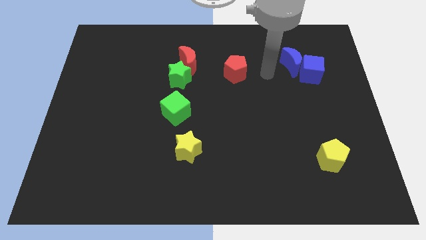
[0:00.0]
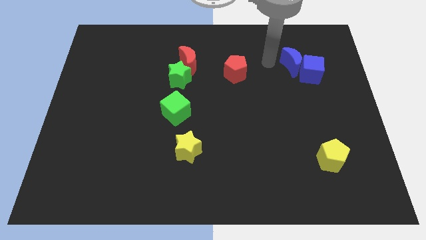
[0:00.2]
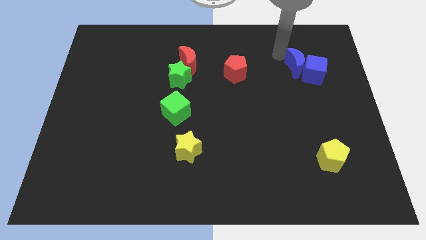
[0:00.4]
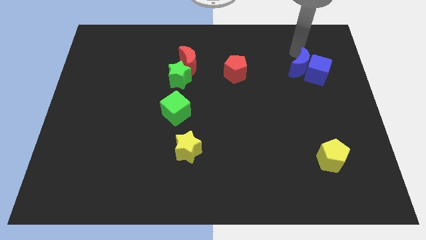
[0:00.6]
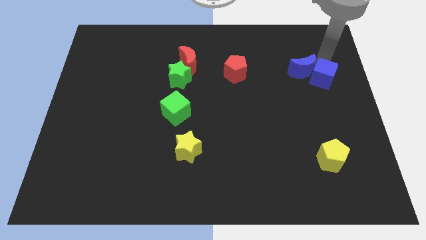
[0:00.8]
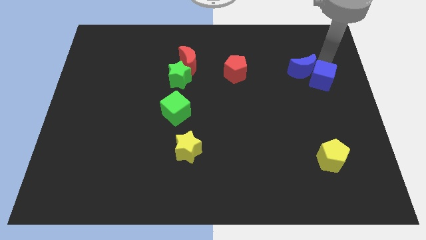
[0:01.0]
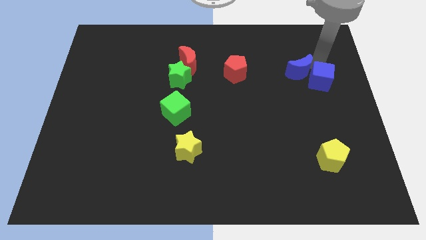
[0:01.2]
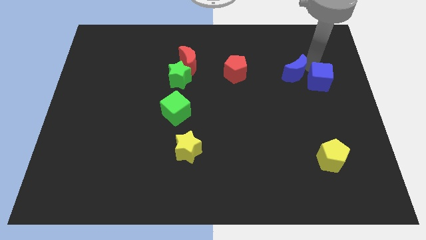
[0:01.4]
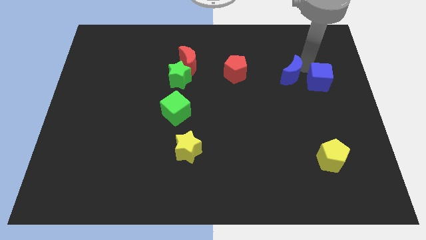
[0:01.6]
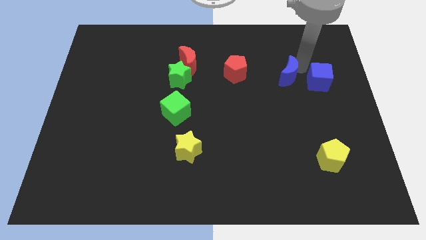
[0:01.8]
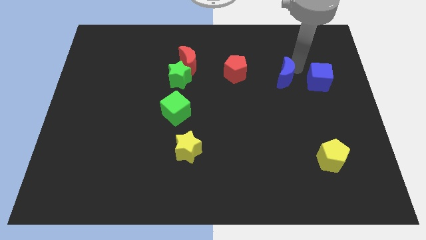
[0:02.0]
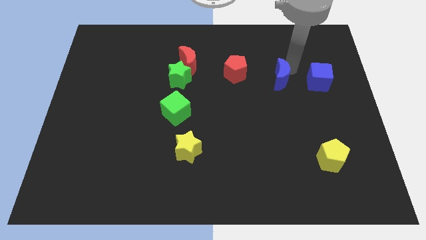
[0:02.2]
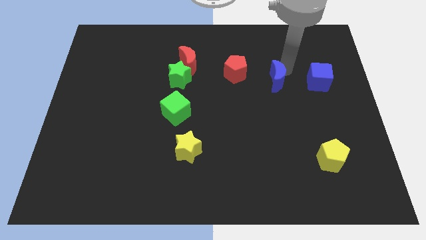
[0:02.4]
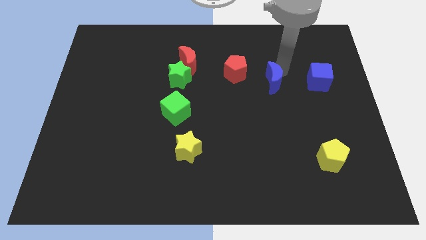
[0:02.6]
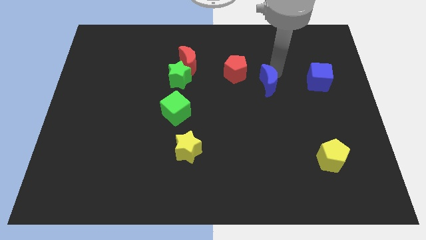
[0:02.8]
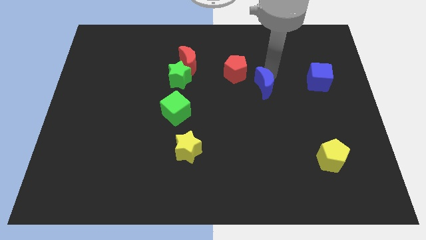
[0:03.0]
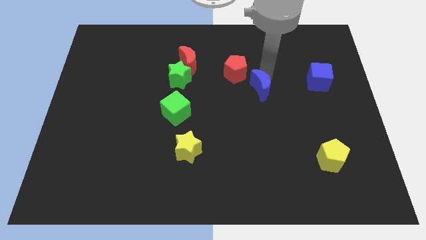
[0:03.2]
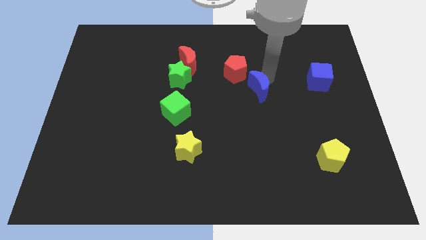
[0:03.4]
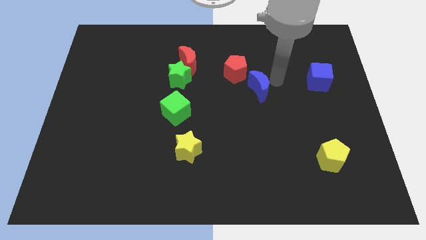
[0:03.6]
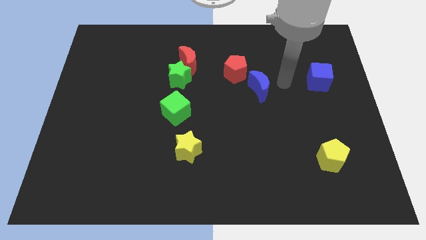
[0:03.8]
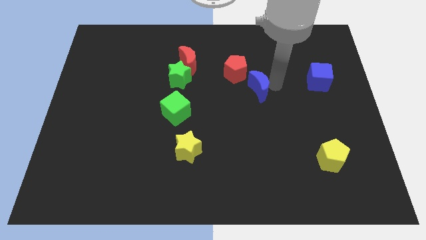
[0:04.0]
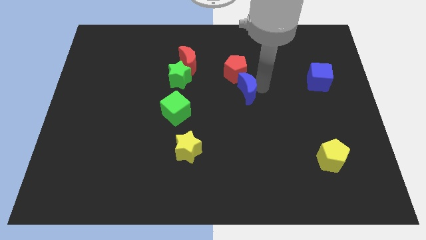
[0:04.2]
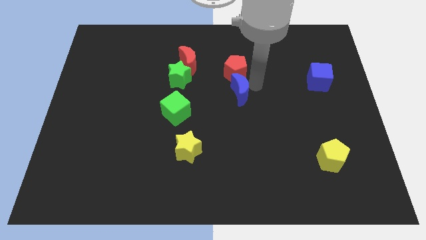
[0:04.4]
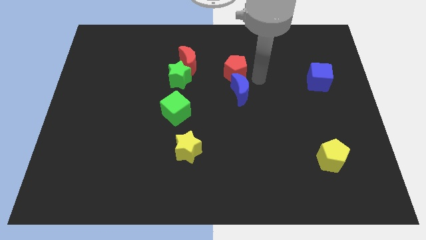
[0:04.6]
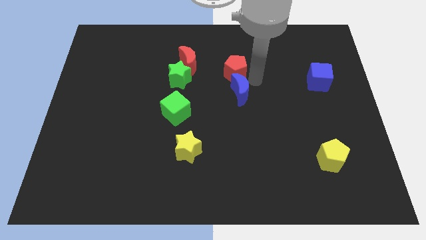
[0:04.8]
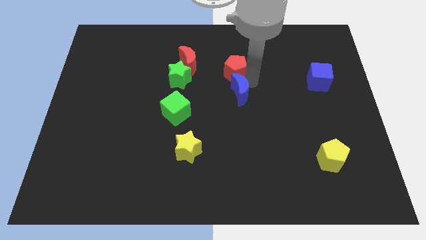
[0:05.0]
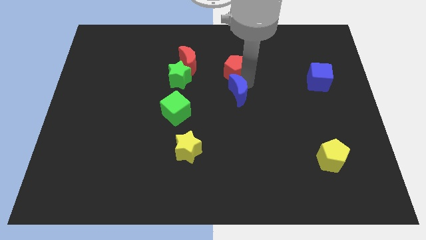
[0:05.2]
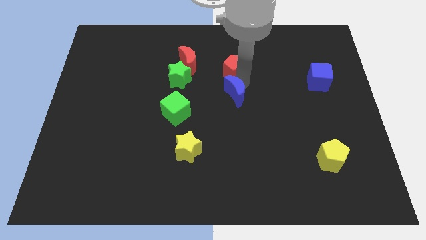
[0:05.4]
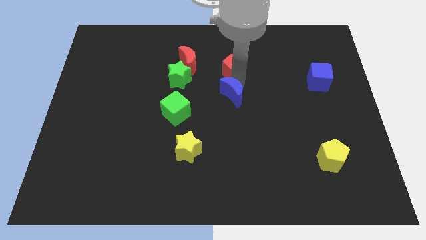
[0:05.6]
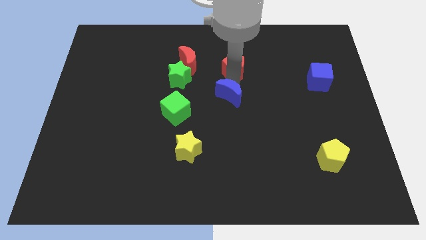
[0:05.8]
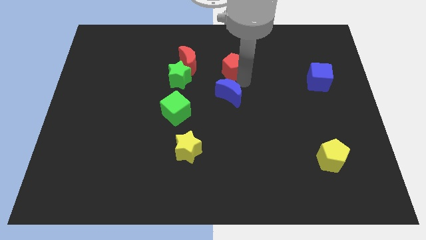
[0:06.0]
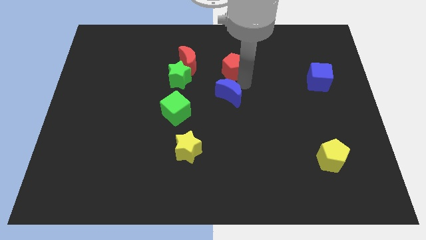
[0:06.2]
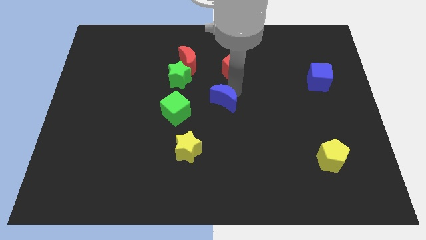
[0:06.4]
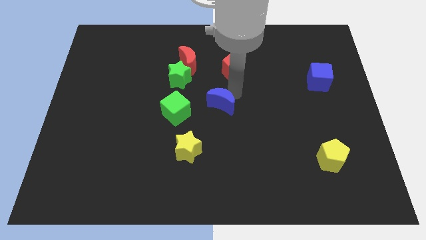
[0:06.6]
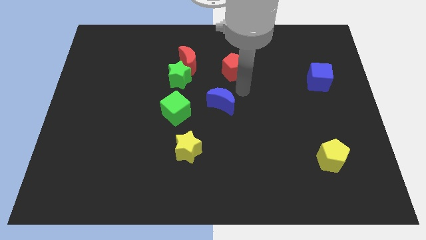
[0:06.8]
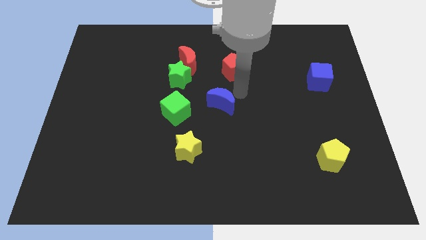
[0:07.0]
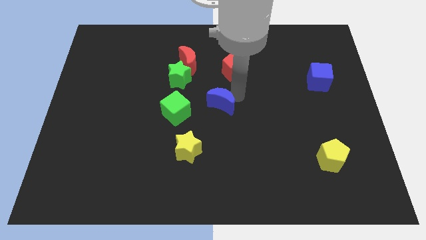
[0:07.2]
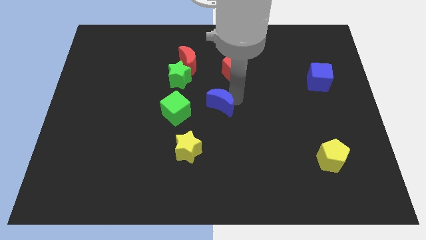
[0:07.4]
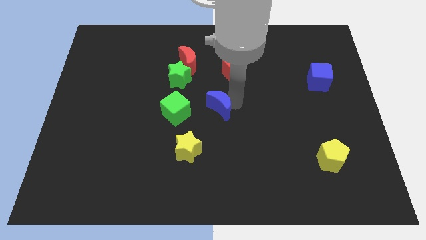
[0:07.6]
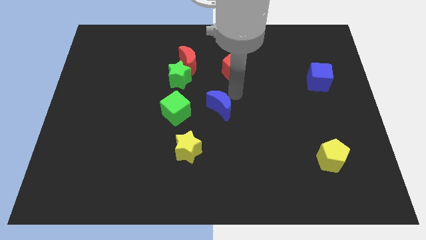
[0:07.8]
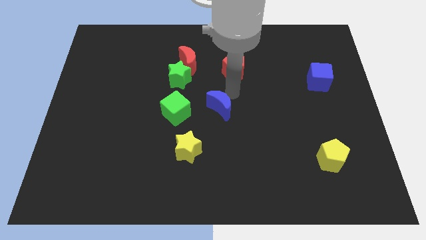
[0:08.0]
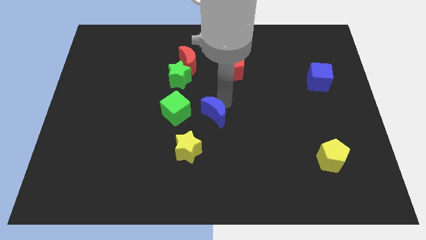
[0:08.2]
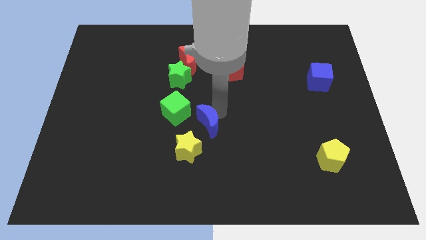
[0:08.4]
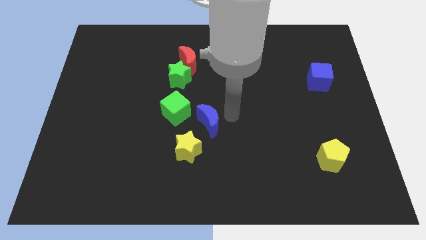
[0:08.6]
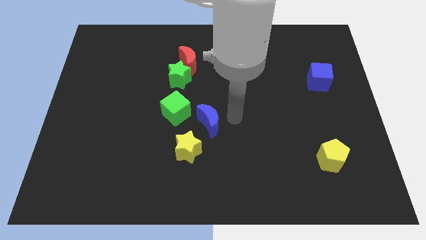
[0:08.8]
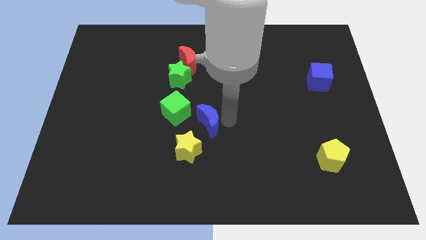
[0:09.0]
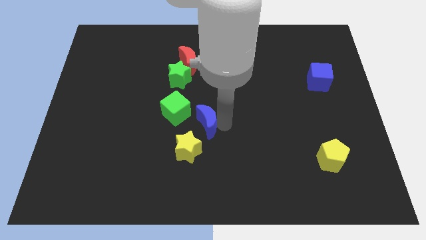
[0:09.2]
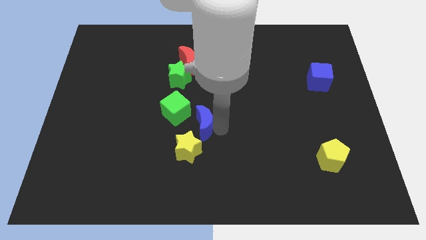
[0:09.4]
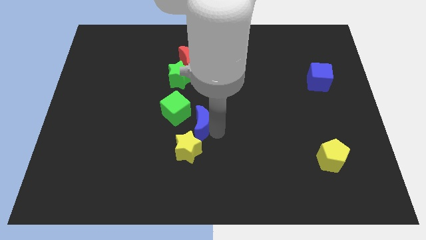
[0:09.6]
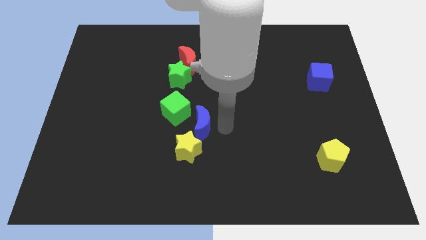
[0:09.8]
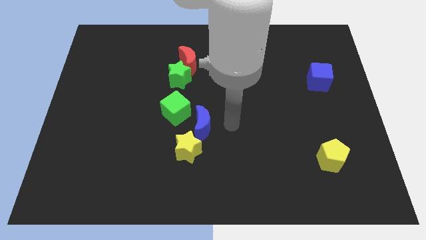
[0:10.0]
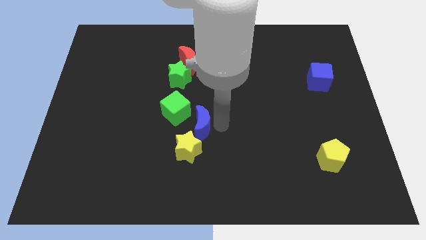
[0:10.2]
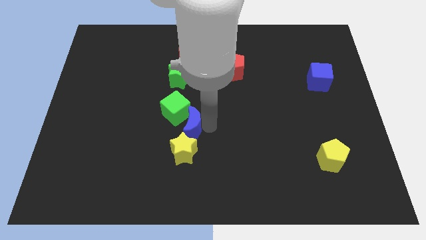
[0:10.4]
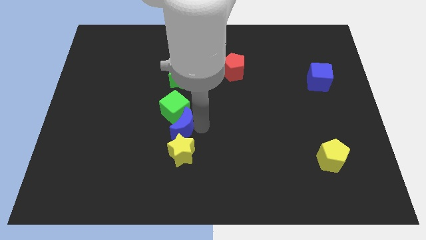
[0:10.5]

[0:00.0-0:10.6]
move the blue moon to the top left side of the yellow star

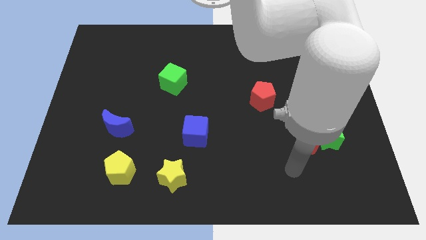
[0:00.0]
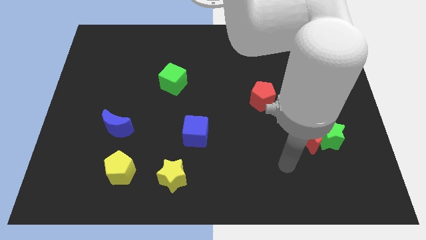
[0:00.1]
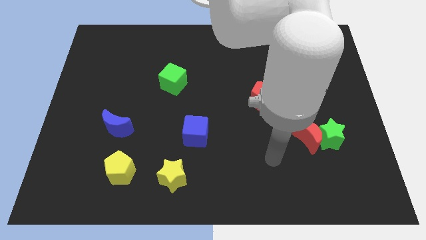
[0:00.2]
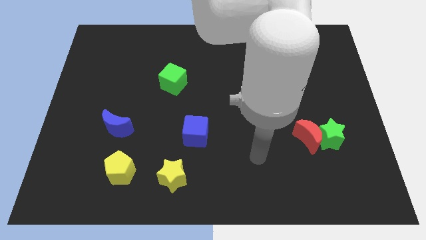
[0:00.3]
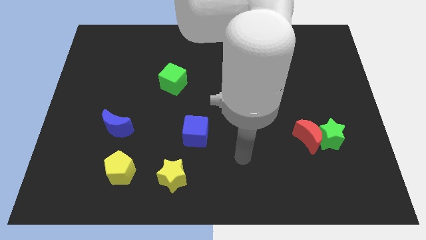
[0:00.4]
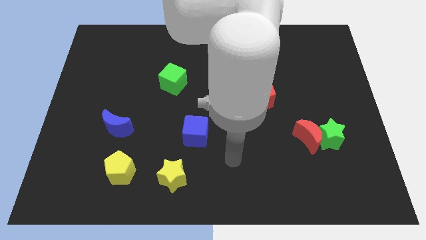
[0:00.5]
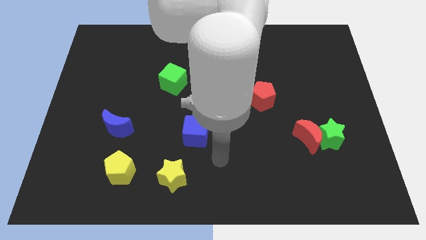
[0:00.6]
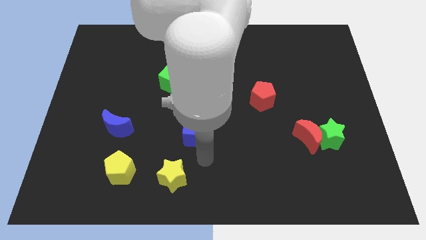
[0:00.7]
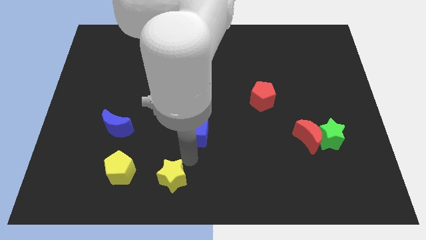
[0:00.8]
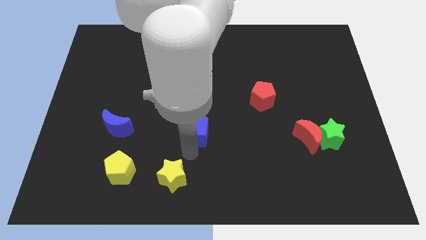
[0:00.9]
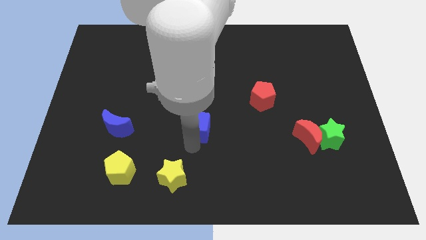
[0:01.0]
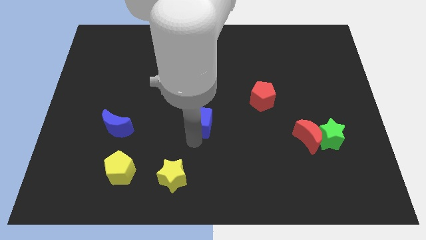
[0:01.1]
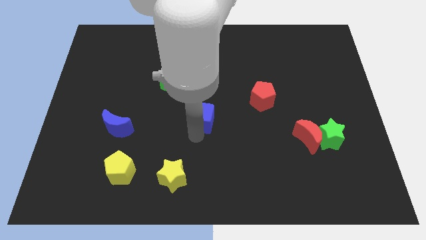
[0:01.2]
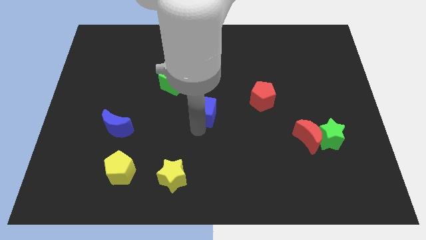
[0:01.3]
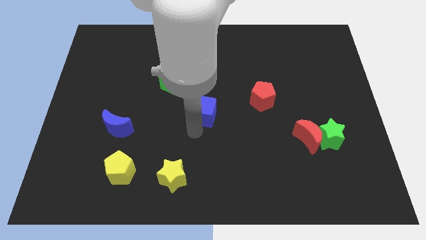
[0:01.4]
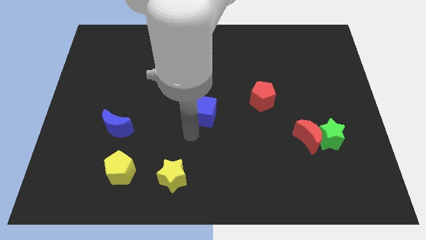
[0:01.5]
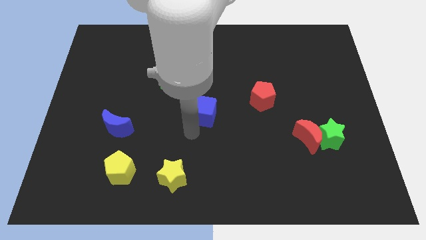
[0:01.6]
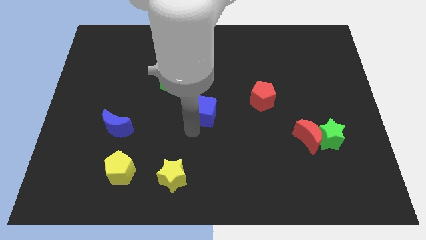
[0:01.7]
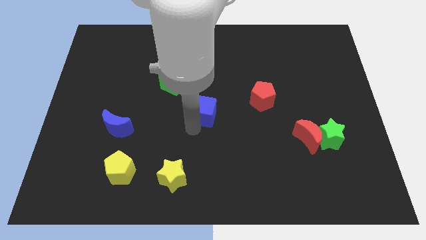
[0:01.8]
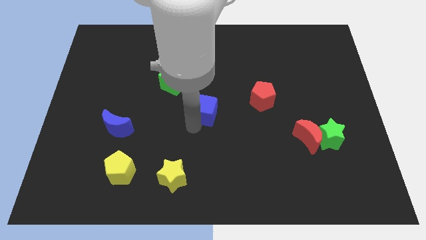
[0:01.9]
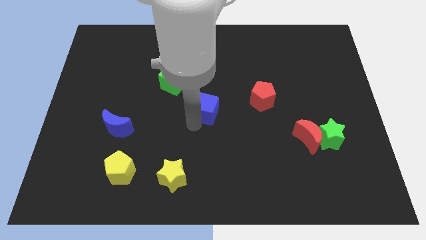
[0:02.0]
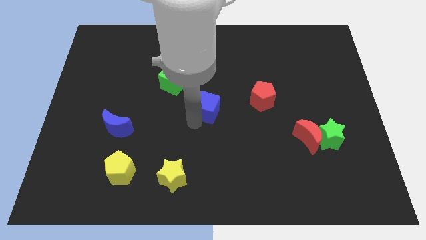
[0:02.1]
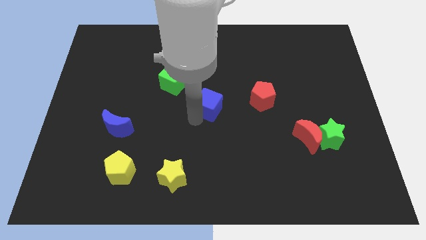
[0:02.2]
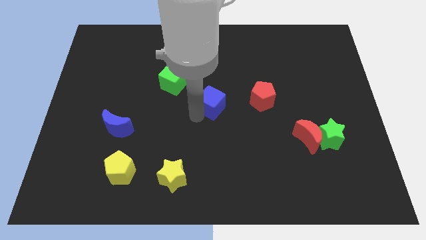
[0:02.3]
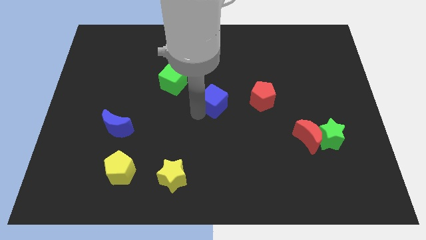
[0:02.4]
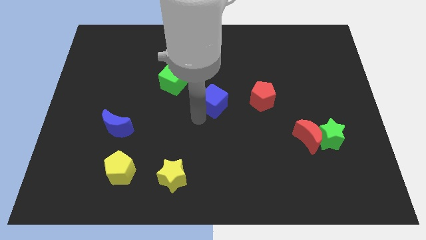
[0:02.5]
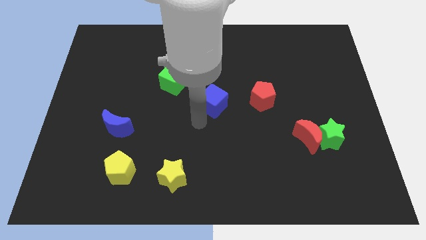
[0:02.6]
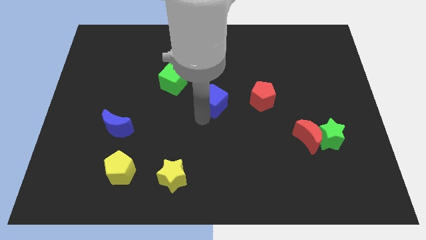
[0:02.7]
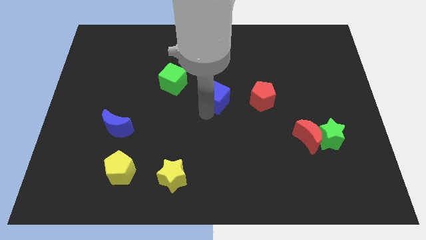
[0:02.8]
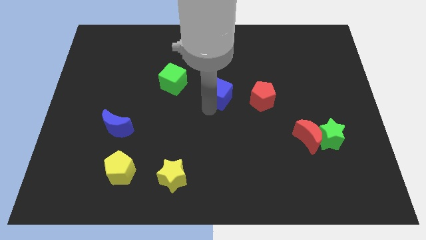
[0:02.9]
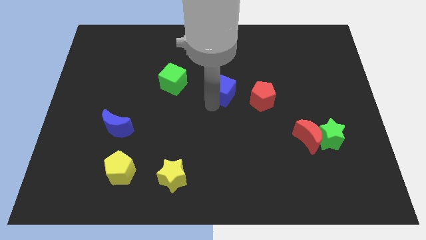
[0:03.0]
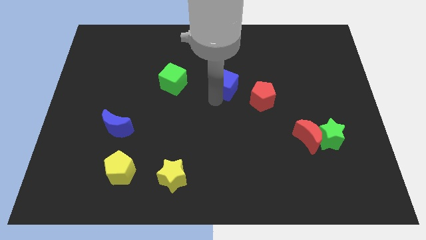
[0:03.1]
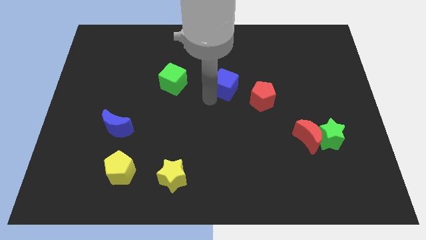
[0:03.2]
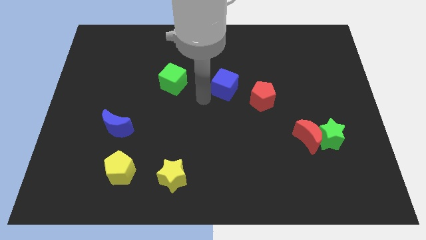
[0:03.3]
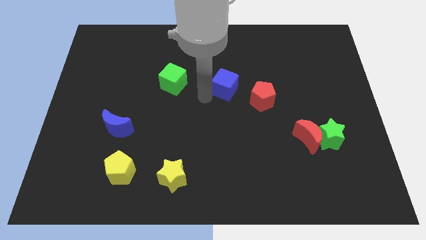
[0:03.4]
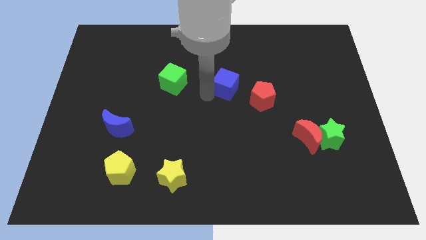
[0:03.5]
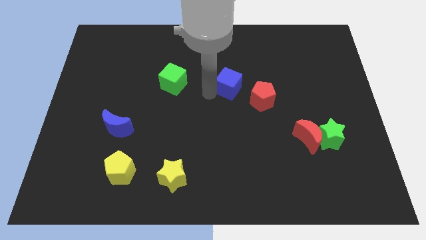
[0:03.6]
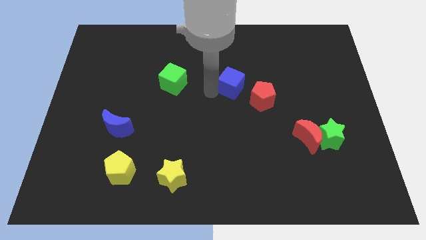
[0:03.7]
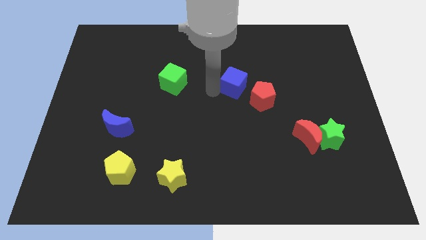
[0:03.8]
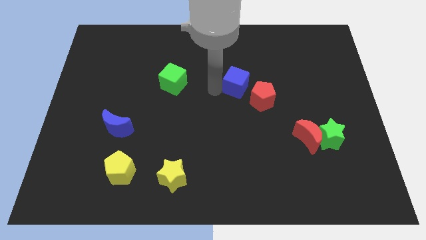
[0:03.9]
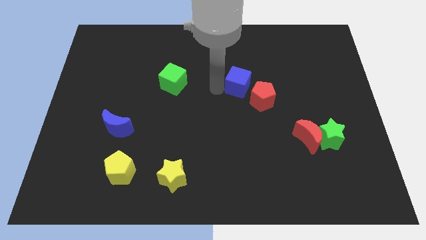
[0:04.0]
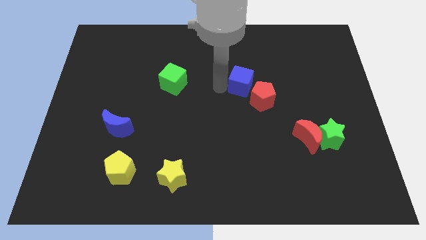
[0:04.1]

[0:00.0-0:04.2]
move the blue cube above the red pentagon
